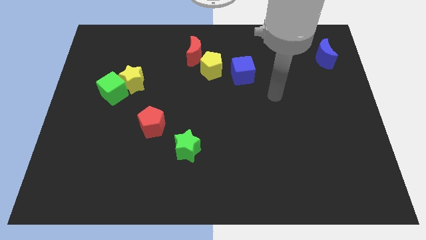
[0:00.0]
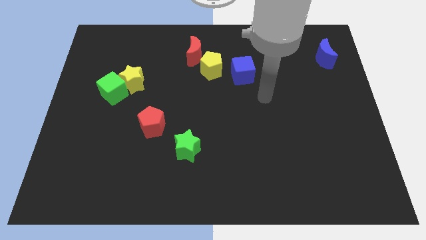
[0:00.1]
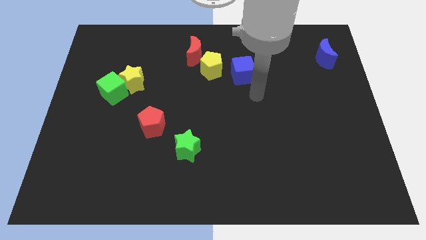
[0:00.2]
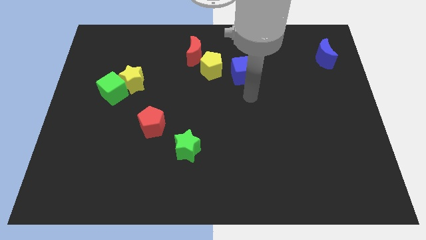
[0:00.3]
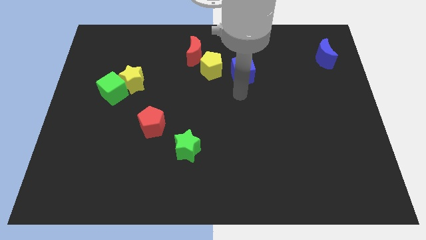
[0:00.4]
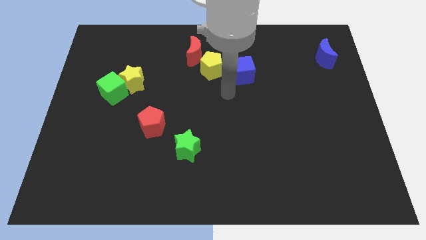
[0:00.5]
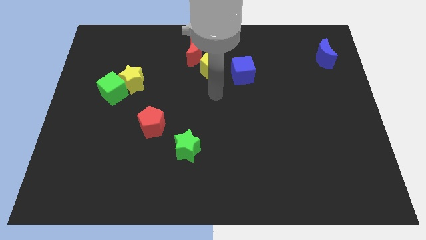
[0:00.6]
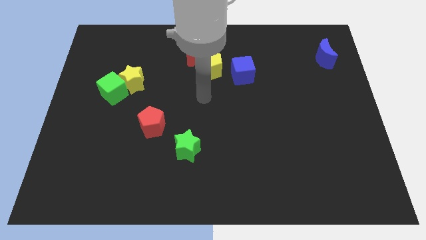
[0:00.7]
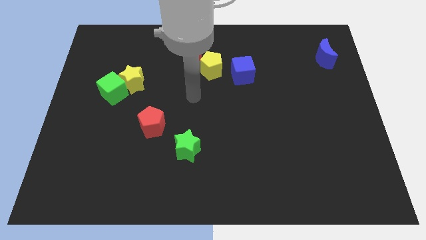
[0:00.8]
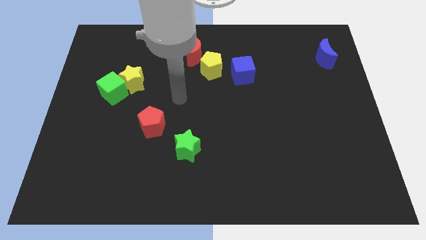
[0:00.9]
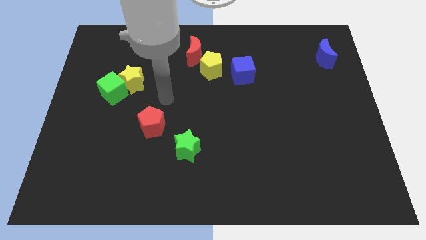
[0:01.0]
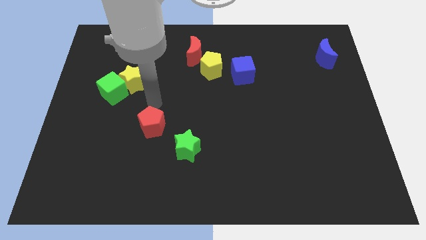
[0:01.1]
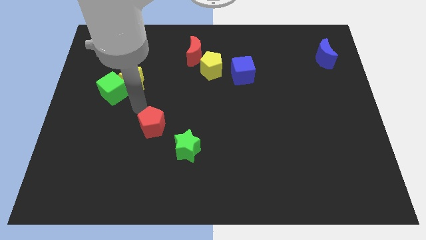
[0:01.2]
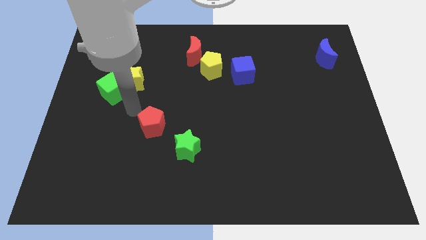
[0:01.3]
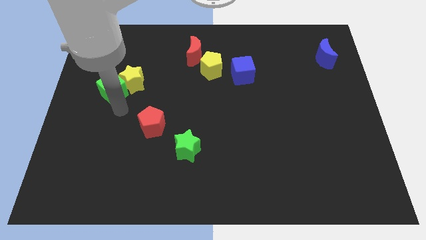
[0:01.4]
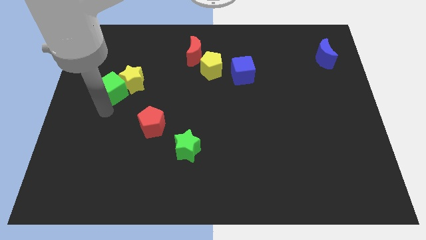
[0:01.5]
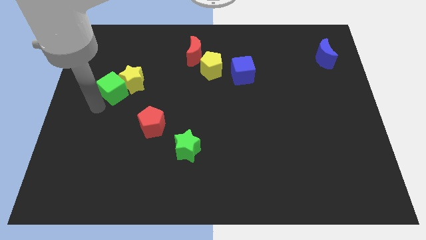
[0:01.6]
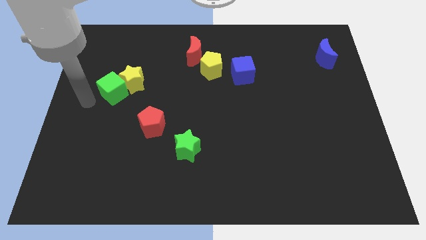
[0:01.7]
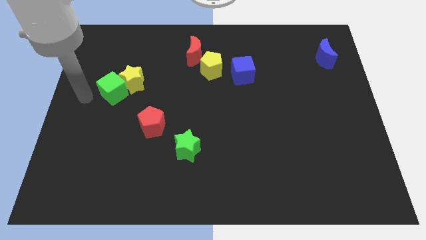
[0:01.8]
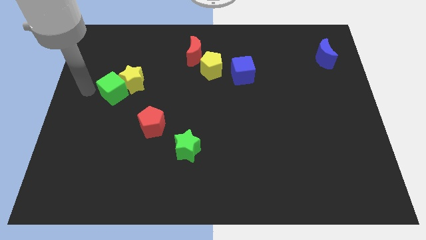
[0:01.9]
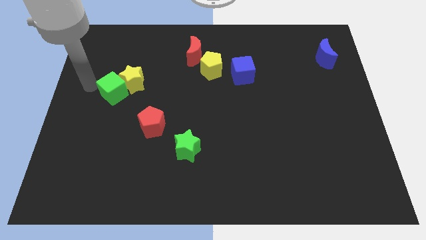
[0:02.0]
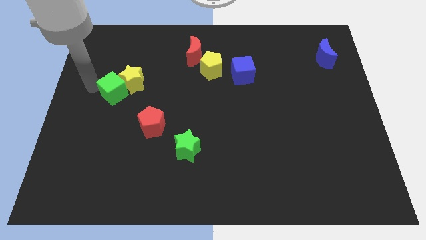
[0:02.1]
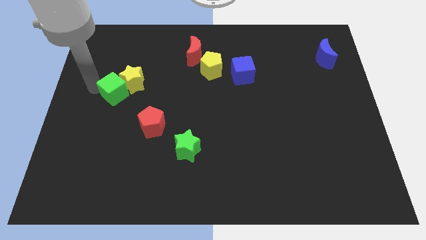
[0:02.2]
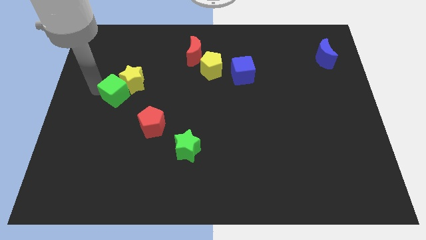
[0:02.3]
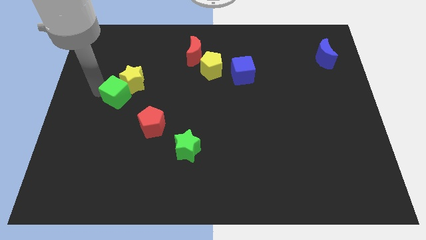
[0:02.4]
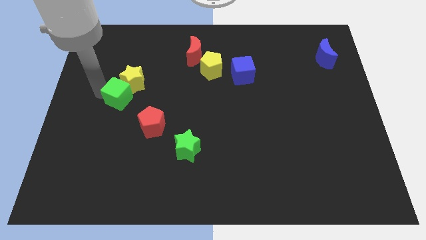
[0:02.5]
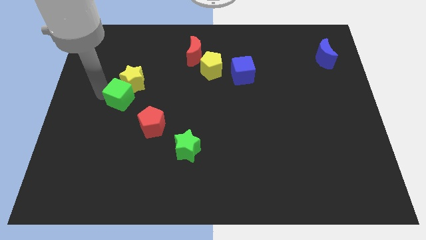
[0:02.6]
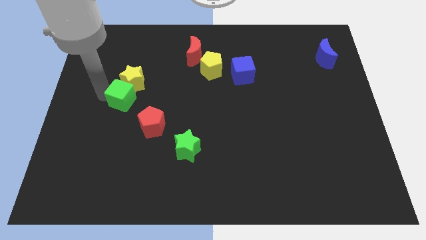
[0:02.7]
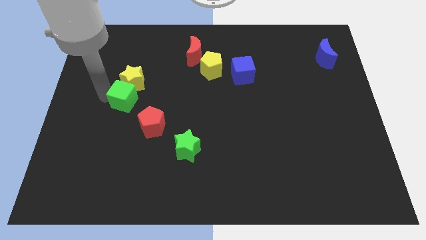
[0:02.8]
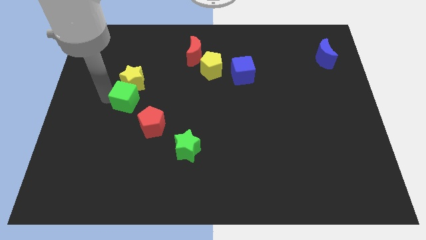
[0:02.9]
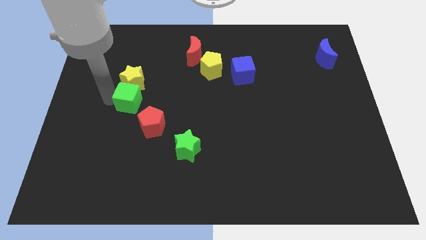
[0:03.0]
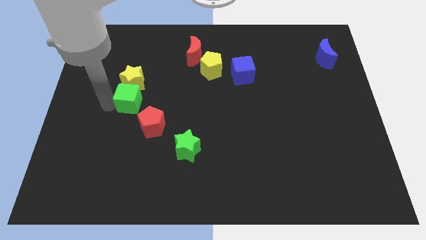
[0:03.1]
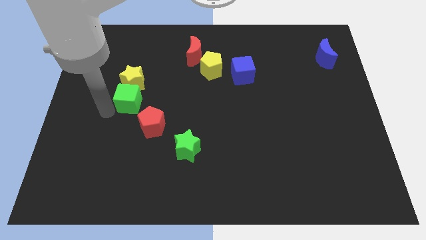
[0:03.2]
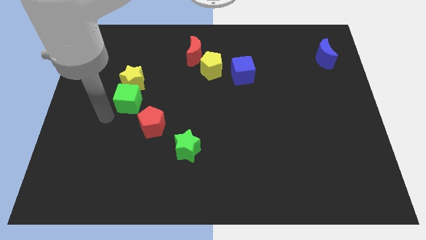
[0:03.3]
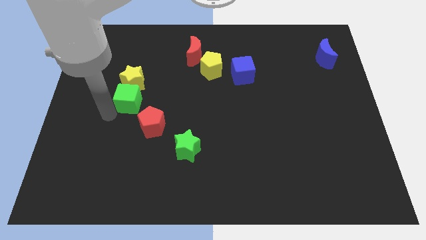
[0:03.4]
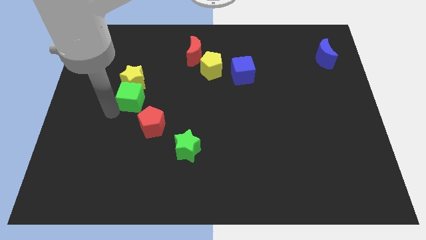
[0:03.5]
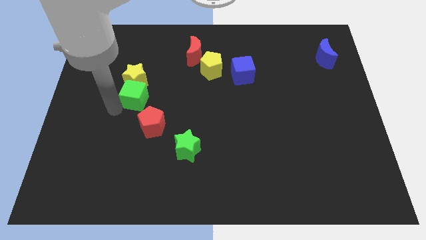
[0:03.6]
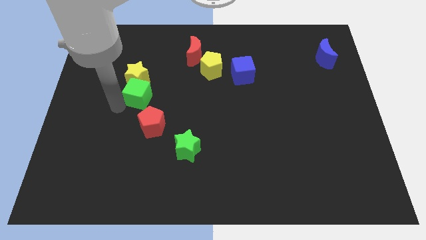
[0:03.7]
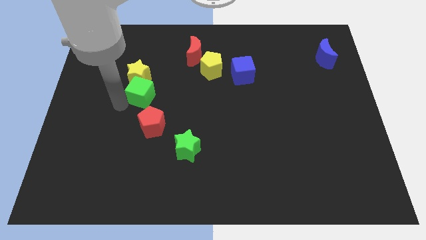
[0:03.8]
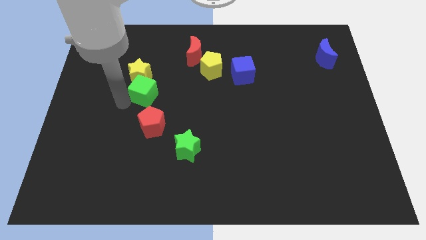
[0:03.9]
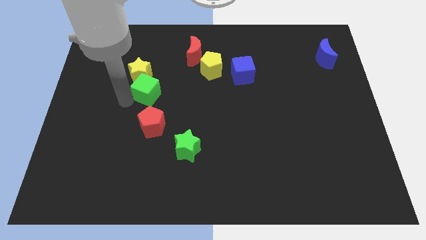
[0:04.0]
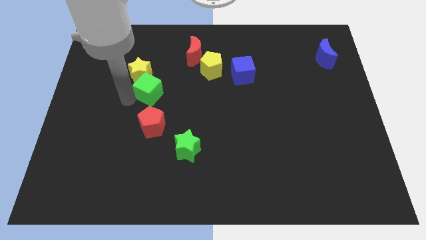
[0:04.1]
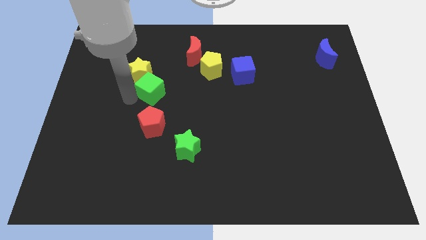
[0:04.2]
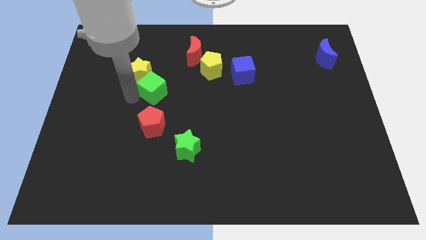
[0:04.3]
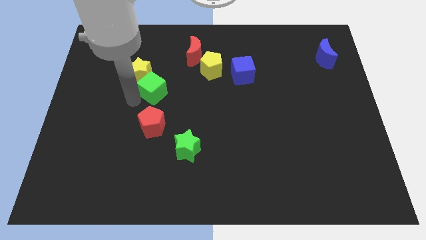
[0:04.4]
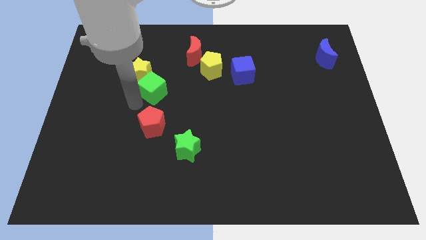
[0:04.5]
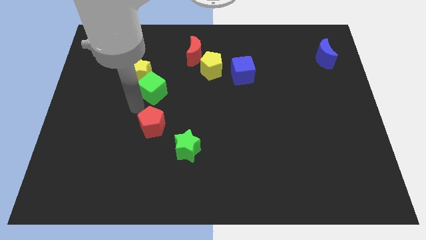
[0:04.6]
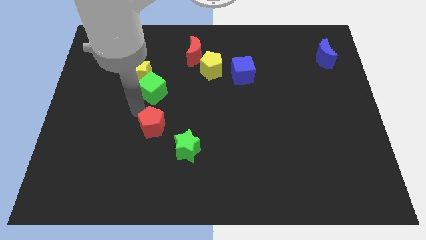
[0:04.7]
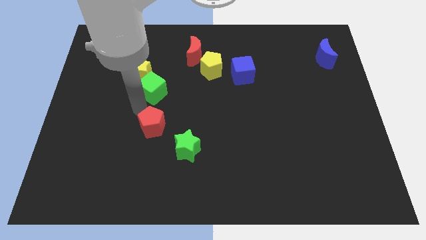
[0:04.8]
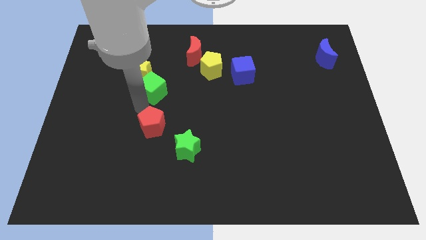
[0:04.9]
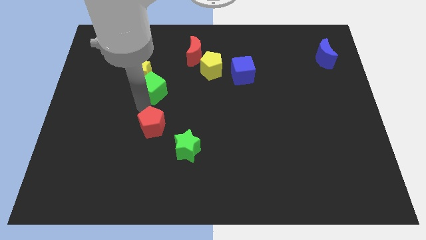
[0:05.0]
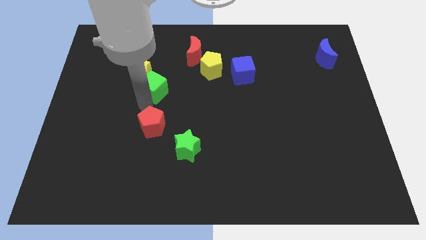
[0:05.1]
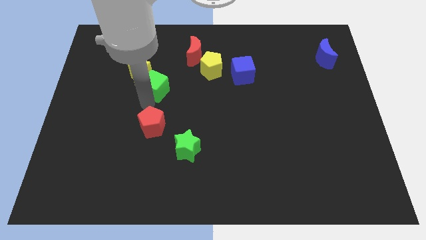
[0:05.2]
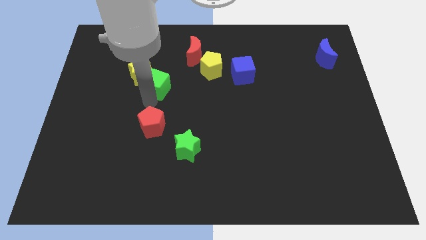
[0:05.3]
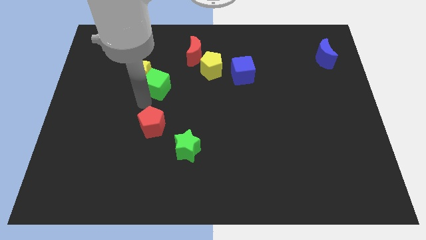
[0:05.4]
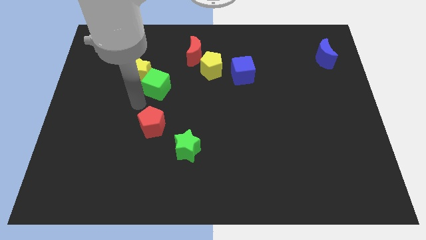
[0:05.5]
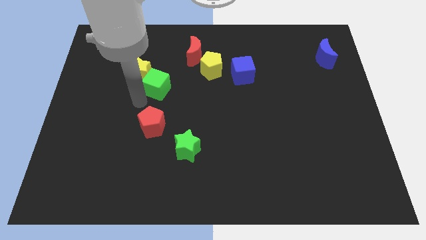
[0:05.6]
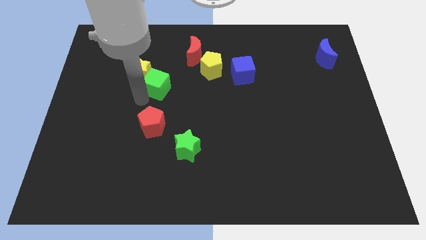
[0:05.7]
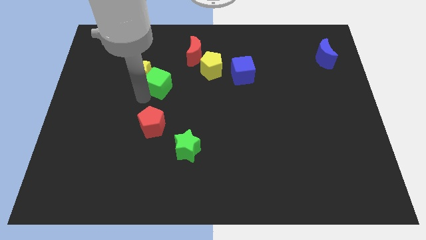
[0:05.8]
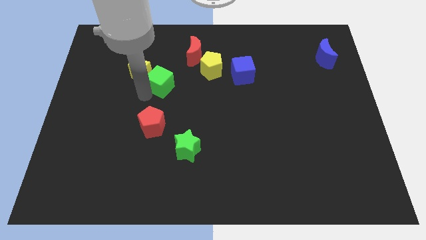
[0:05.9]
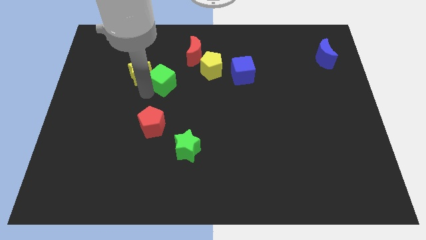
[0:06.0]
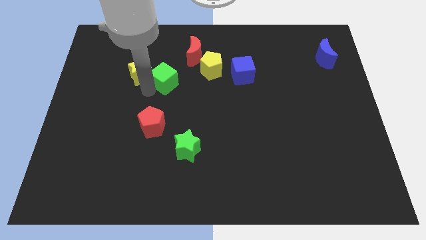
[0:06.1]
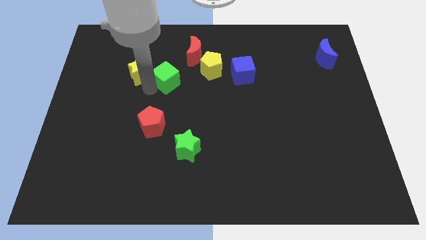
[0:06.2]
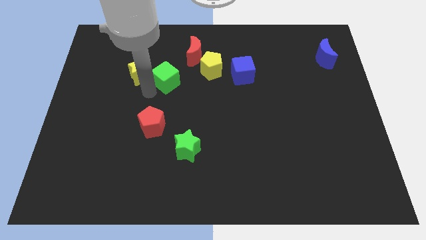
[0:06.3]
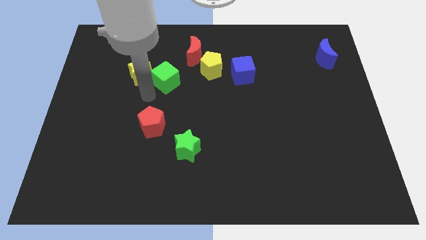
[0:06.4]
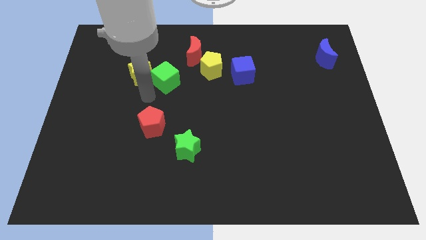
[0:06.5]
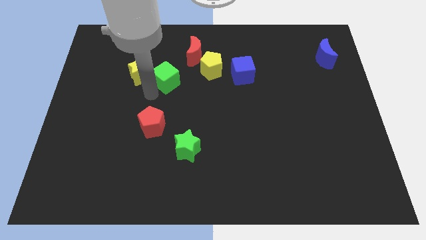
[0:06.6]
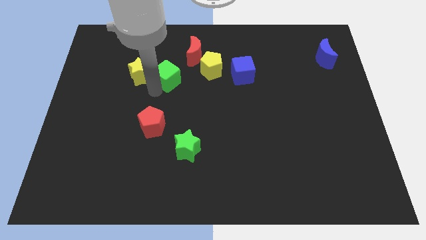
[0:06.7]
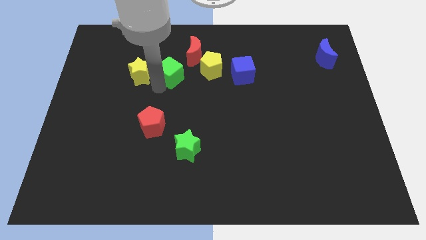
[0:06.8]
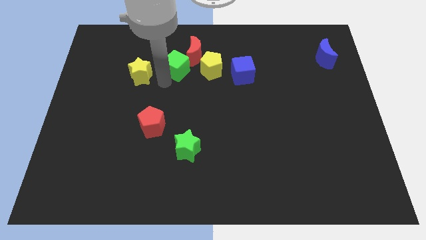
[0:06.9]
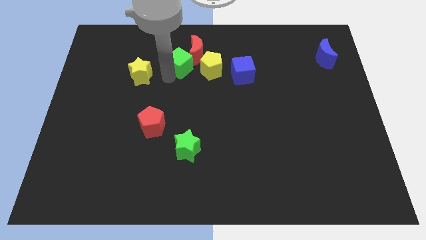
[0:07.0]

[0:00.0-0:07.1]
slide the green cube close to the red moon
